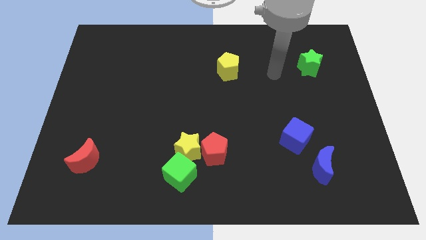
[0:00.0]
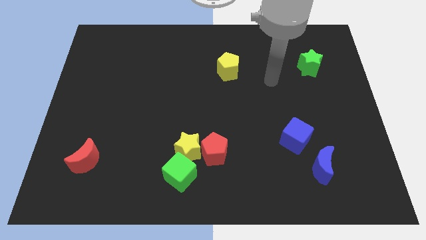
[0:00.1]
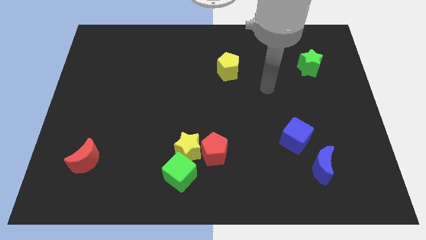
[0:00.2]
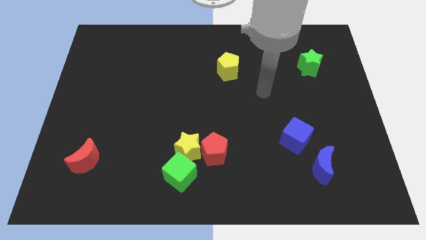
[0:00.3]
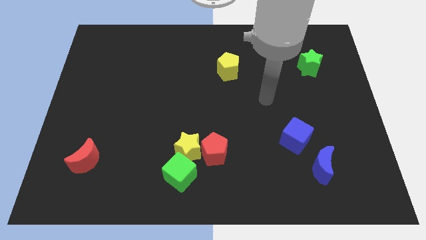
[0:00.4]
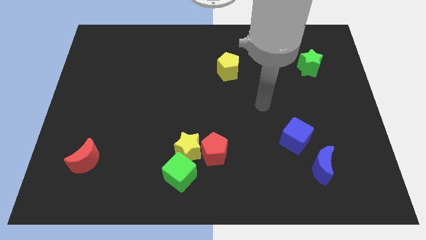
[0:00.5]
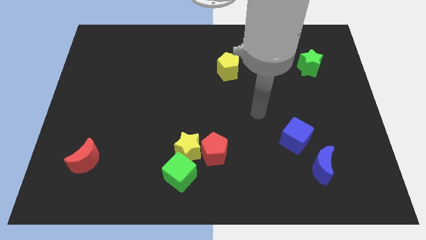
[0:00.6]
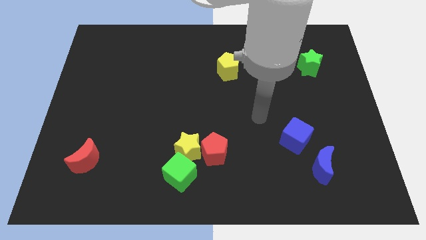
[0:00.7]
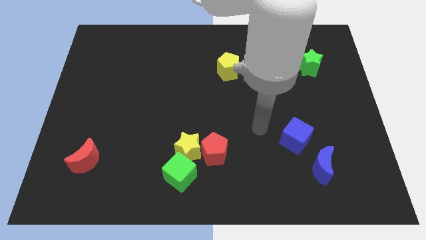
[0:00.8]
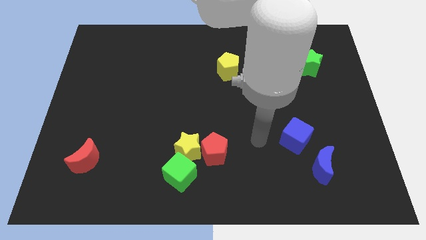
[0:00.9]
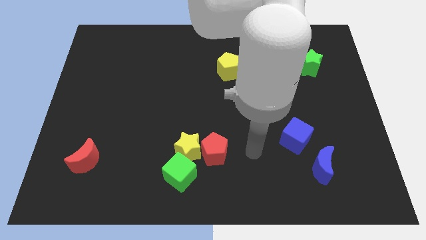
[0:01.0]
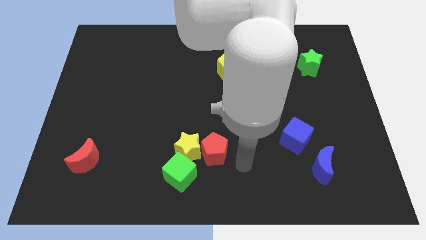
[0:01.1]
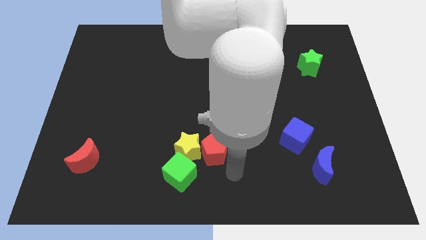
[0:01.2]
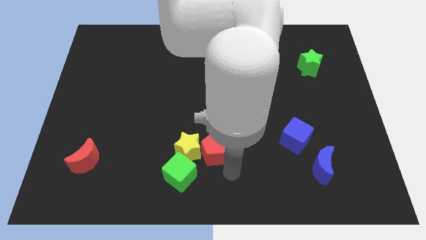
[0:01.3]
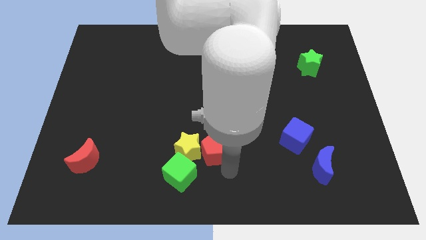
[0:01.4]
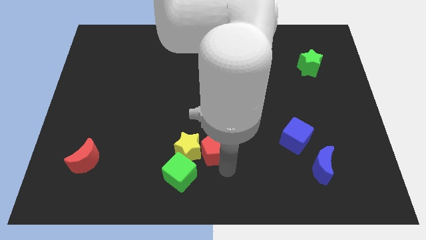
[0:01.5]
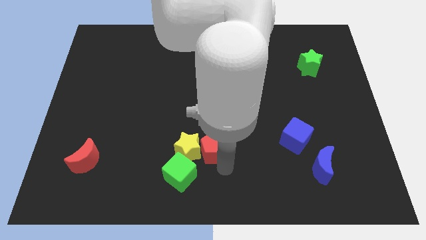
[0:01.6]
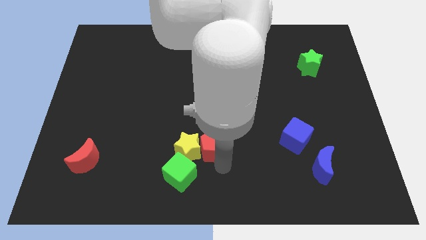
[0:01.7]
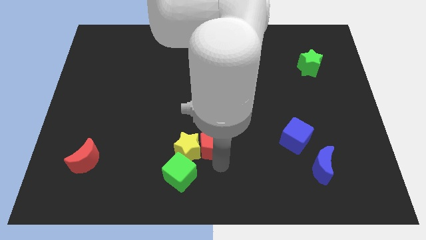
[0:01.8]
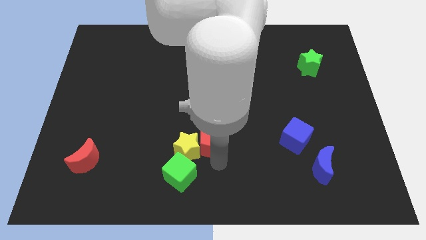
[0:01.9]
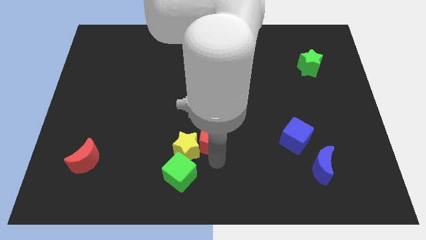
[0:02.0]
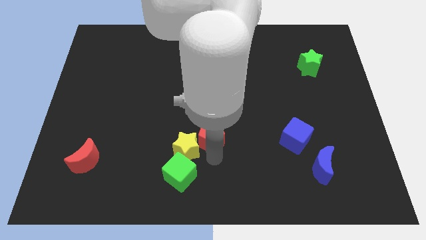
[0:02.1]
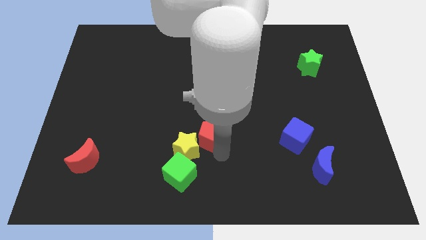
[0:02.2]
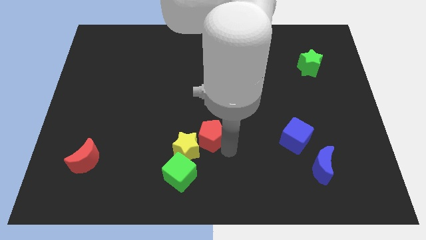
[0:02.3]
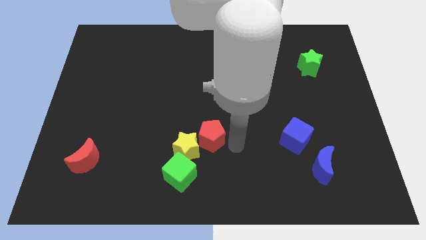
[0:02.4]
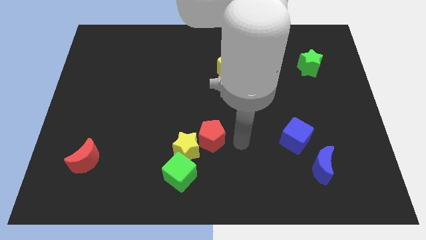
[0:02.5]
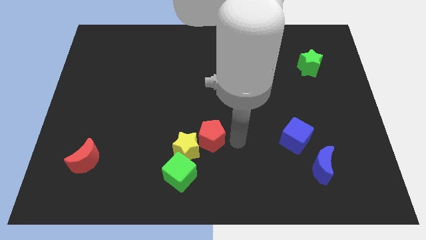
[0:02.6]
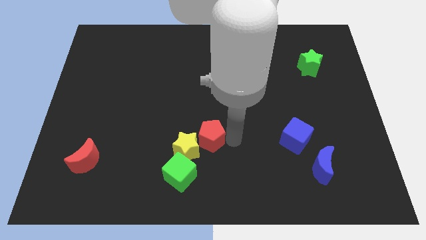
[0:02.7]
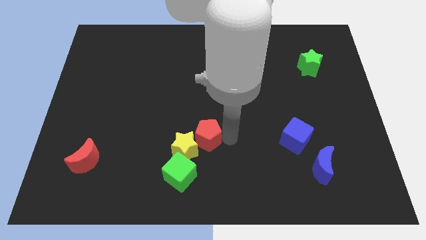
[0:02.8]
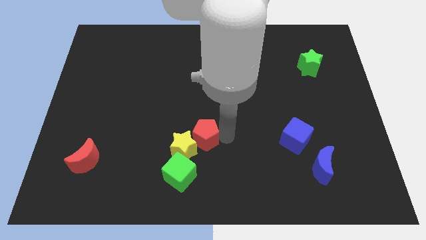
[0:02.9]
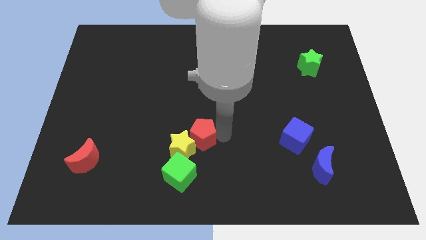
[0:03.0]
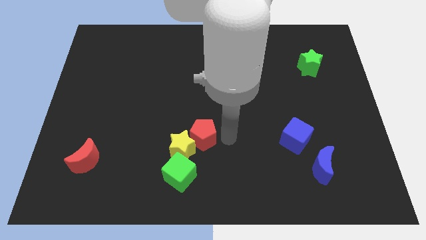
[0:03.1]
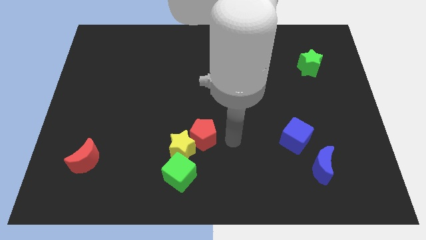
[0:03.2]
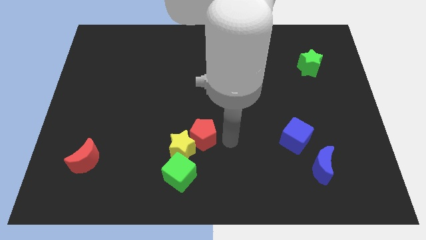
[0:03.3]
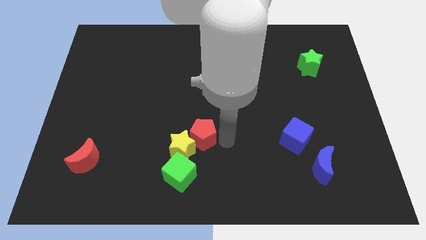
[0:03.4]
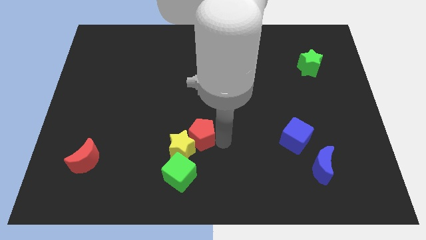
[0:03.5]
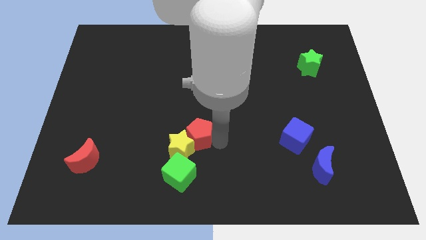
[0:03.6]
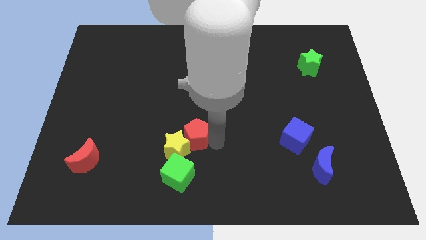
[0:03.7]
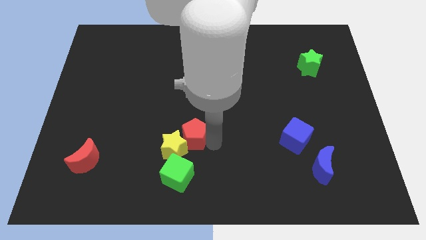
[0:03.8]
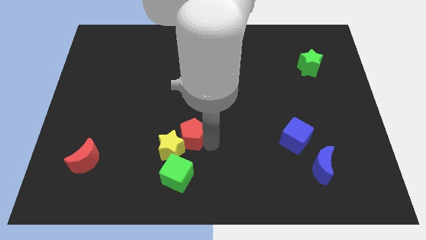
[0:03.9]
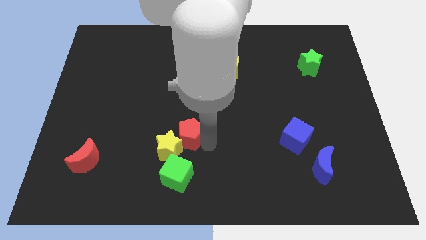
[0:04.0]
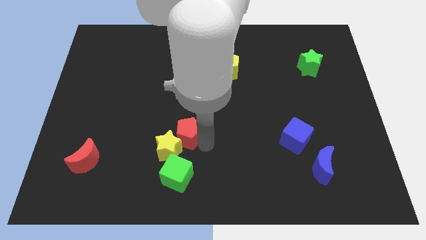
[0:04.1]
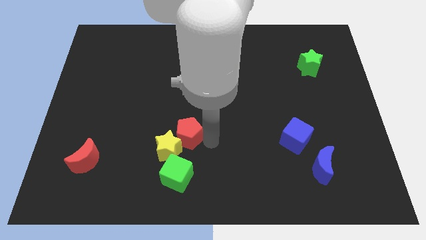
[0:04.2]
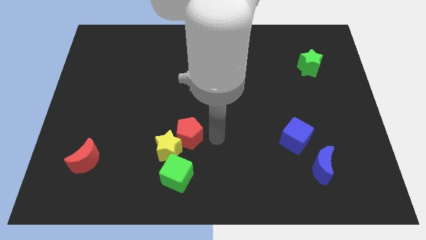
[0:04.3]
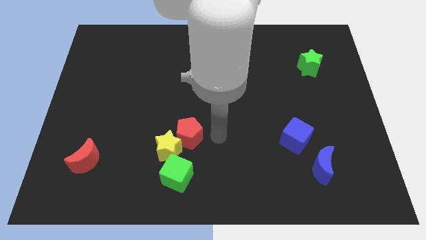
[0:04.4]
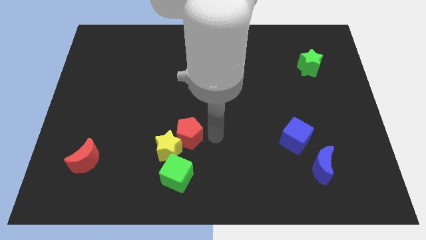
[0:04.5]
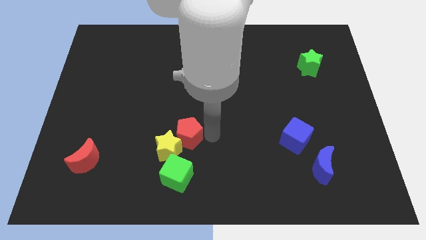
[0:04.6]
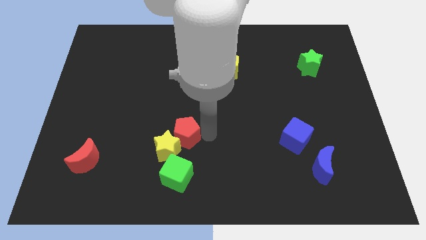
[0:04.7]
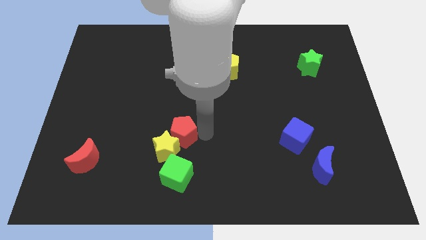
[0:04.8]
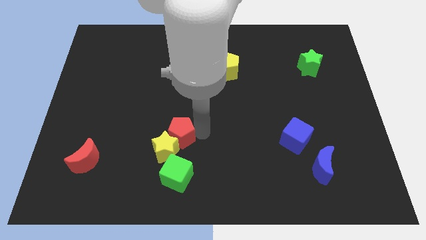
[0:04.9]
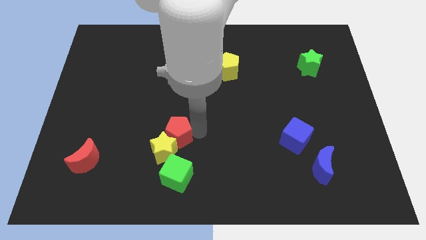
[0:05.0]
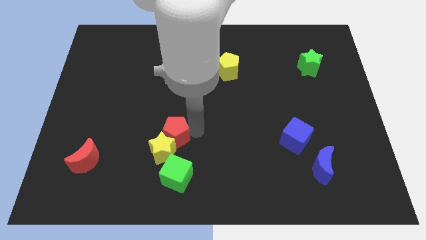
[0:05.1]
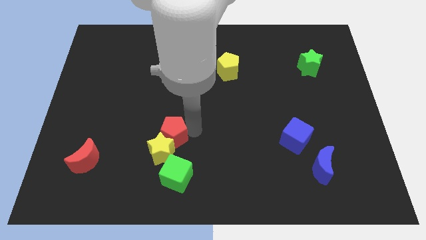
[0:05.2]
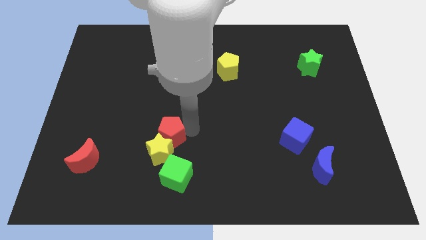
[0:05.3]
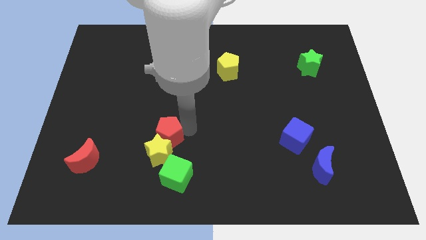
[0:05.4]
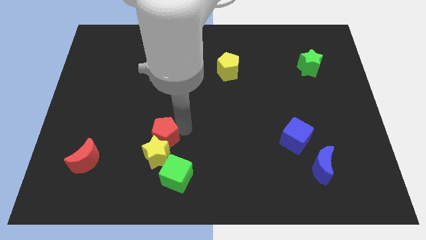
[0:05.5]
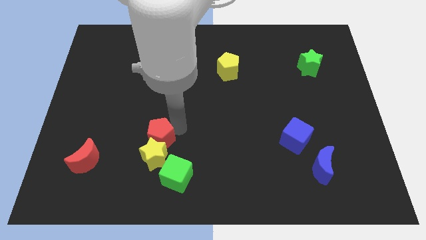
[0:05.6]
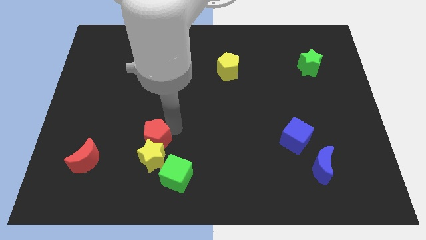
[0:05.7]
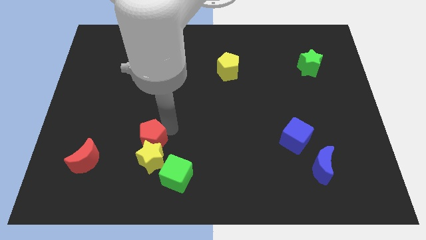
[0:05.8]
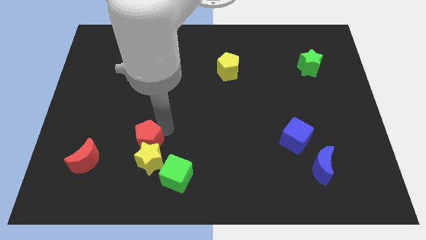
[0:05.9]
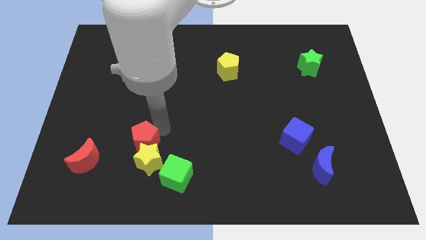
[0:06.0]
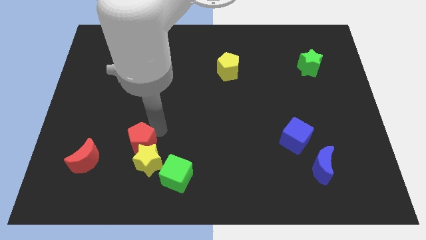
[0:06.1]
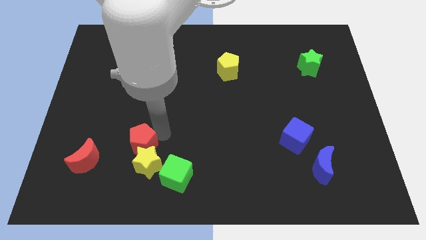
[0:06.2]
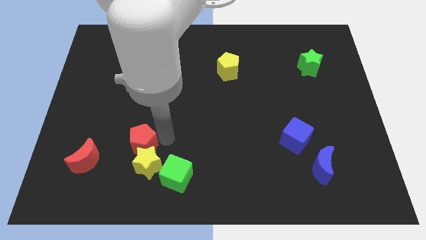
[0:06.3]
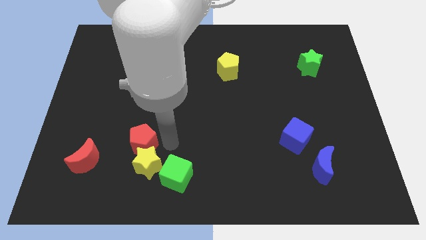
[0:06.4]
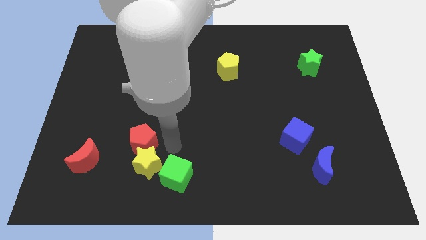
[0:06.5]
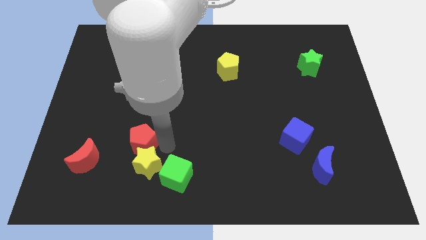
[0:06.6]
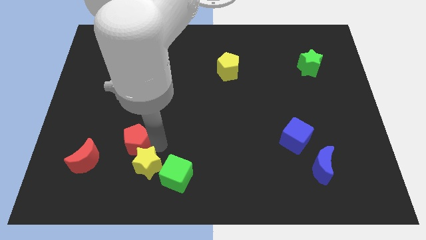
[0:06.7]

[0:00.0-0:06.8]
slide the red pentagon diagonally up and to the right of the red moon

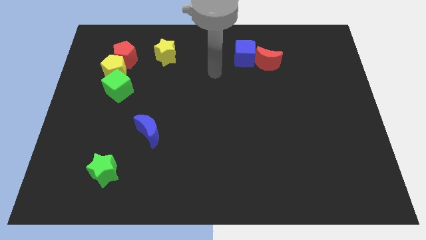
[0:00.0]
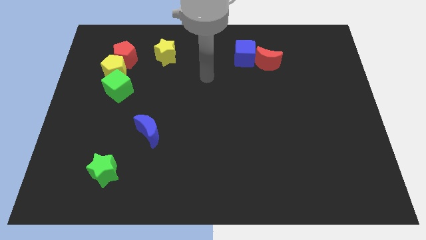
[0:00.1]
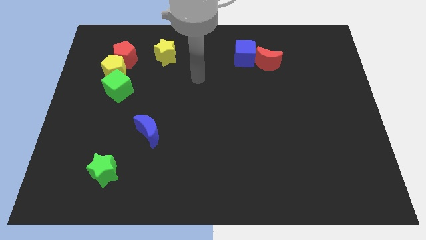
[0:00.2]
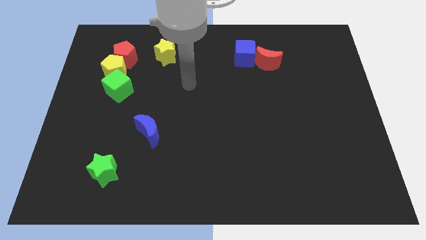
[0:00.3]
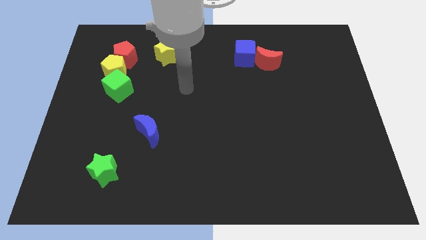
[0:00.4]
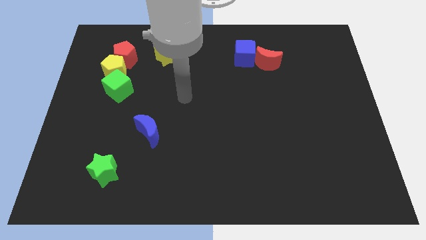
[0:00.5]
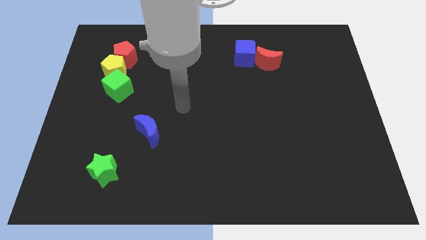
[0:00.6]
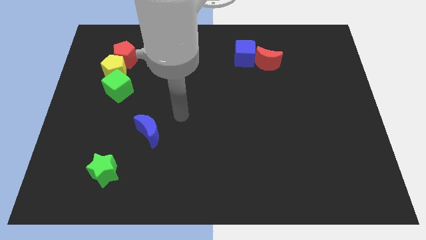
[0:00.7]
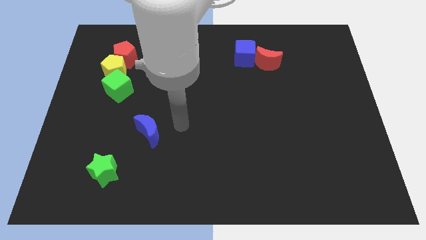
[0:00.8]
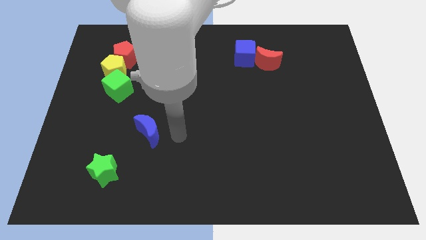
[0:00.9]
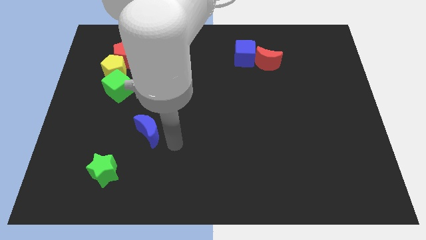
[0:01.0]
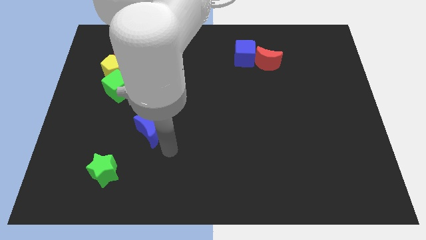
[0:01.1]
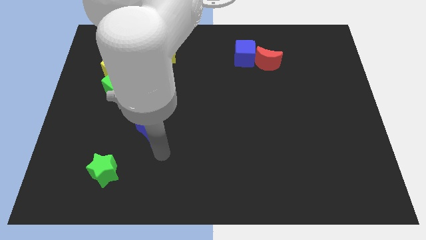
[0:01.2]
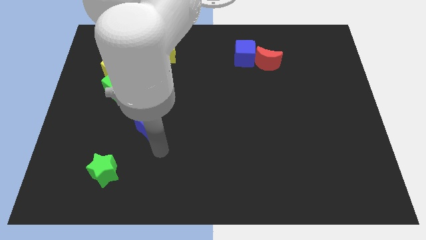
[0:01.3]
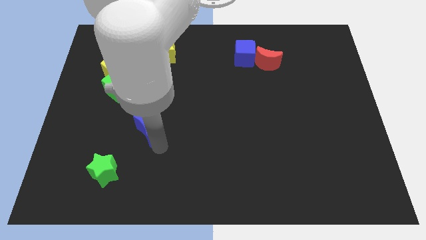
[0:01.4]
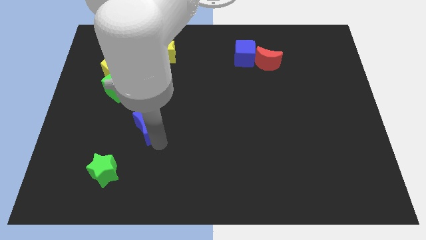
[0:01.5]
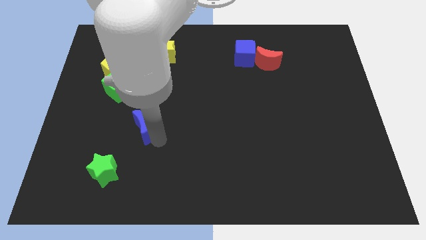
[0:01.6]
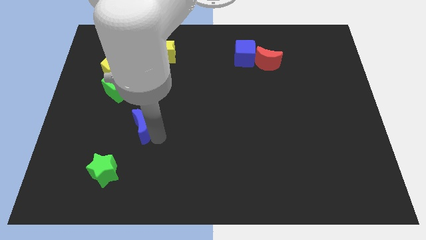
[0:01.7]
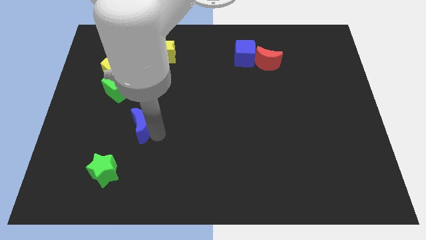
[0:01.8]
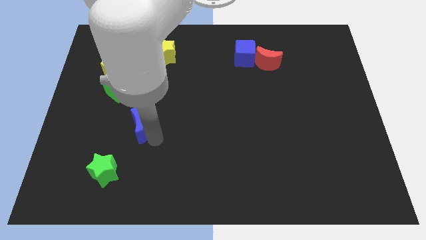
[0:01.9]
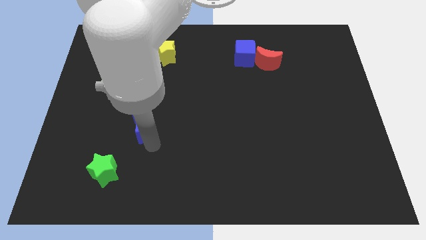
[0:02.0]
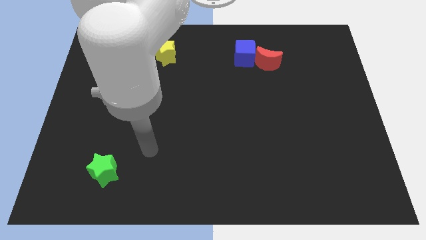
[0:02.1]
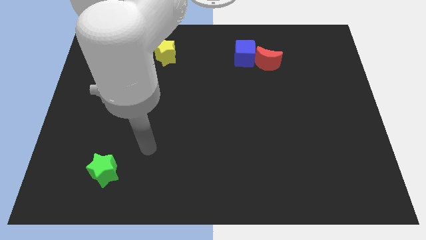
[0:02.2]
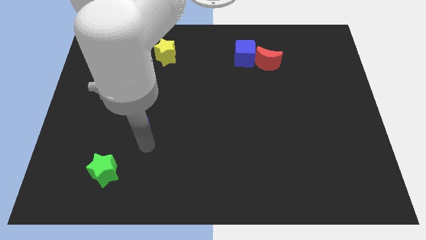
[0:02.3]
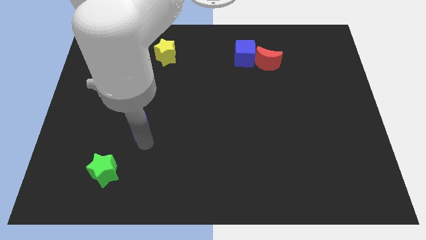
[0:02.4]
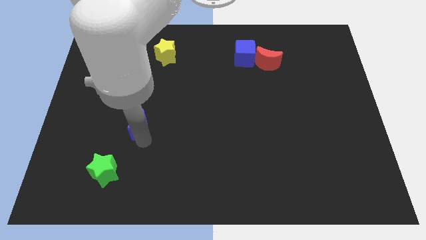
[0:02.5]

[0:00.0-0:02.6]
push the blue moon to the bottom right of the green cube
